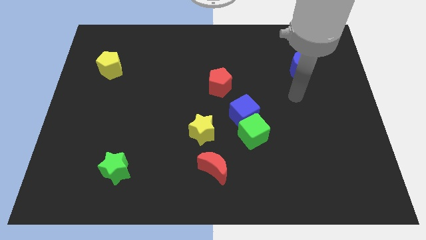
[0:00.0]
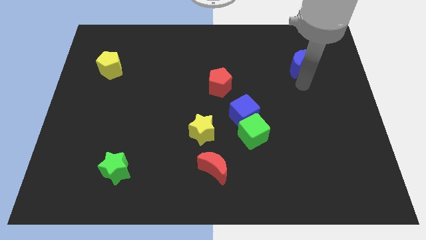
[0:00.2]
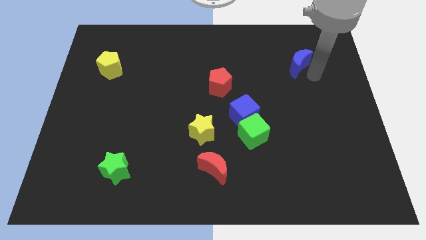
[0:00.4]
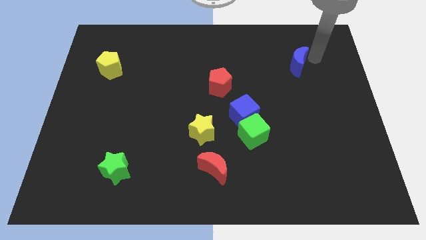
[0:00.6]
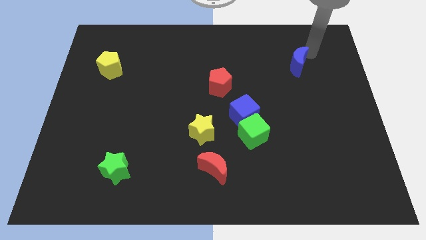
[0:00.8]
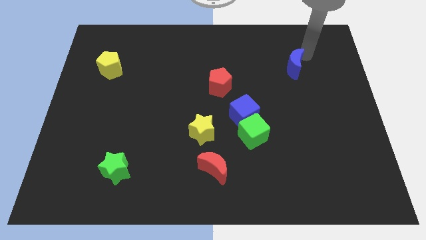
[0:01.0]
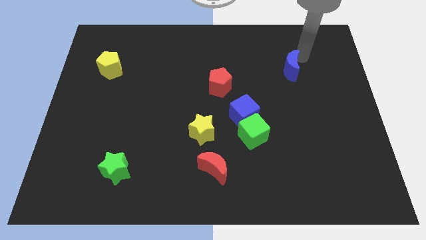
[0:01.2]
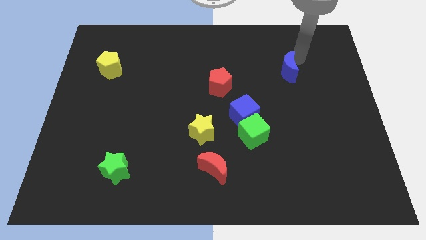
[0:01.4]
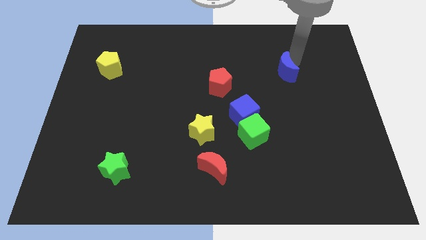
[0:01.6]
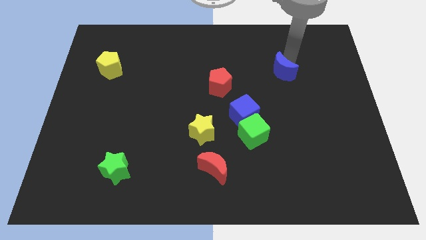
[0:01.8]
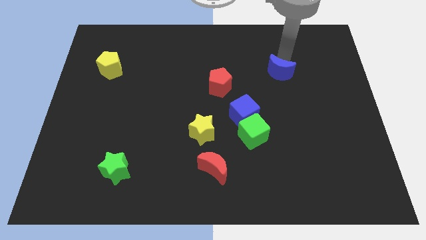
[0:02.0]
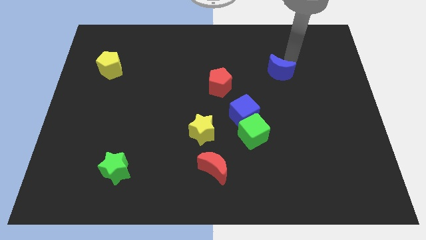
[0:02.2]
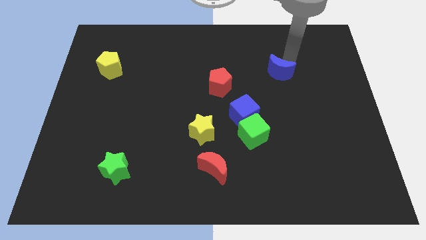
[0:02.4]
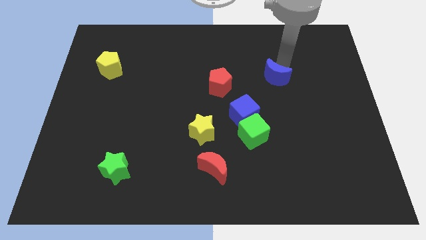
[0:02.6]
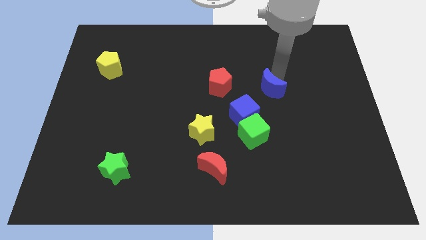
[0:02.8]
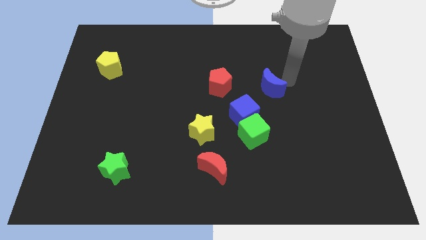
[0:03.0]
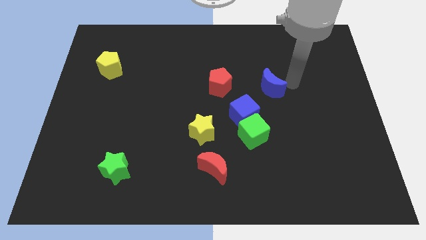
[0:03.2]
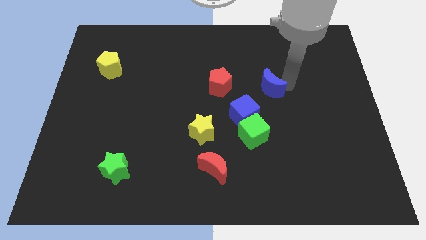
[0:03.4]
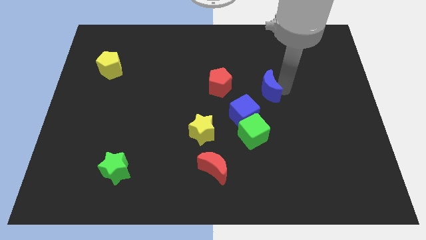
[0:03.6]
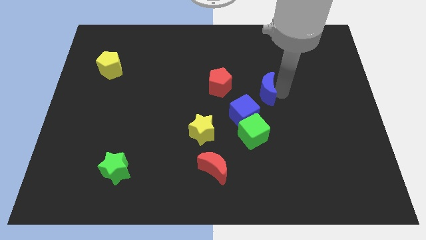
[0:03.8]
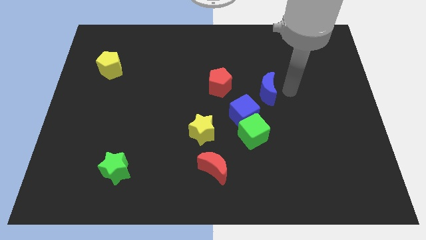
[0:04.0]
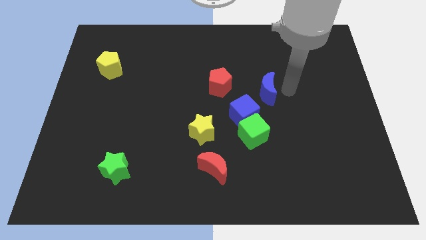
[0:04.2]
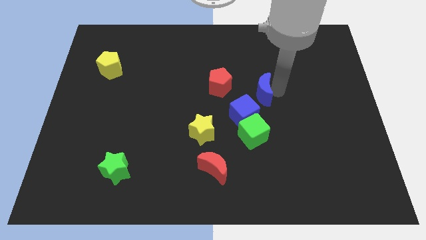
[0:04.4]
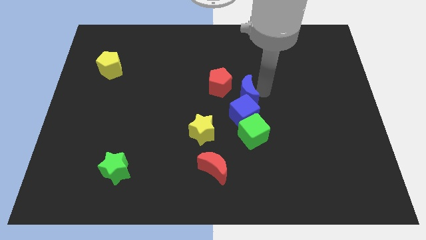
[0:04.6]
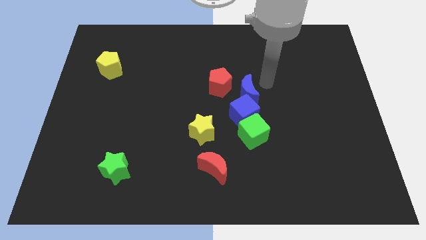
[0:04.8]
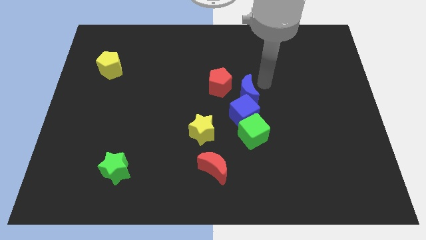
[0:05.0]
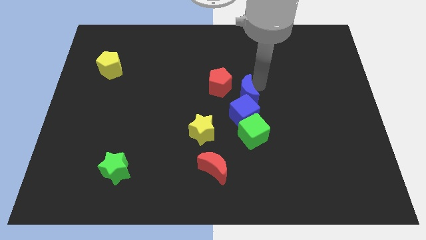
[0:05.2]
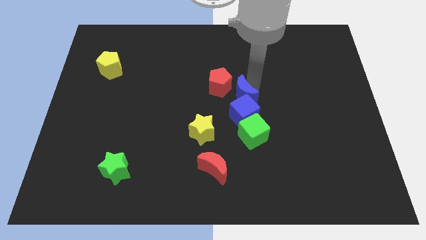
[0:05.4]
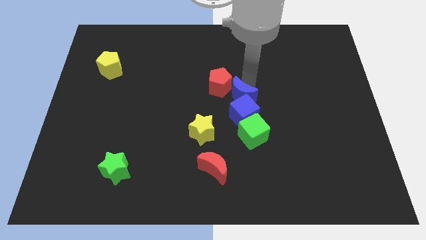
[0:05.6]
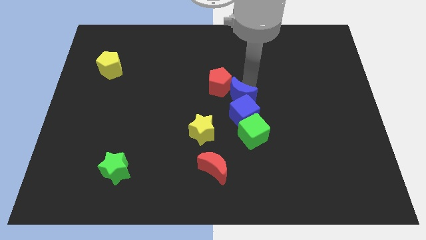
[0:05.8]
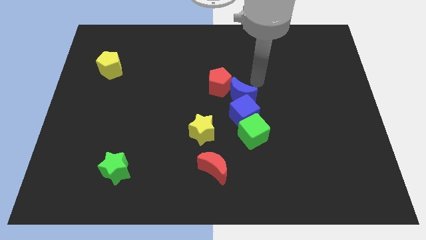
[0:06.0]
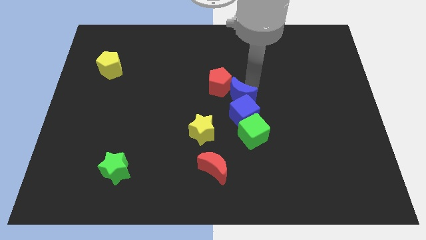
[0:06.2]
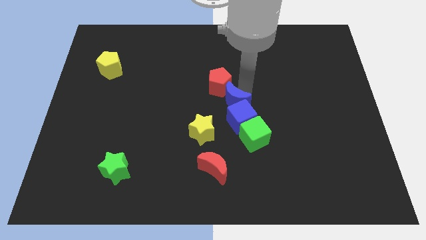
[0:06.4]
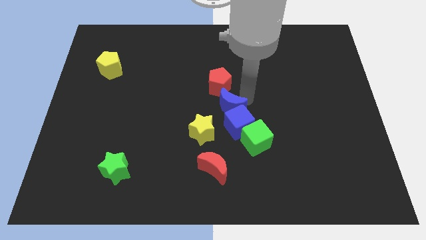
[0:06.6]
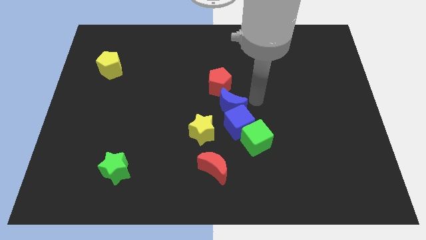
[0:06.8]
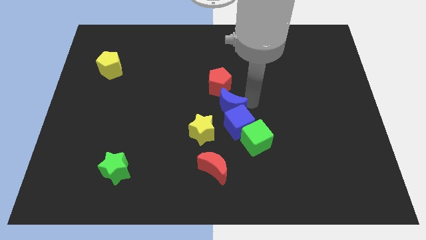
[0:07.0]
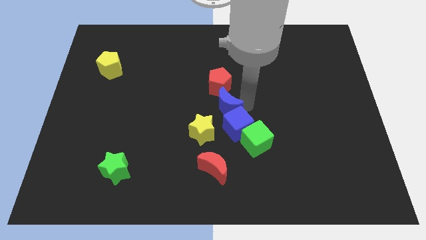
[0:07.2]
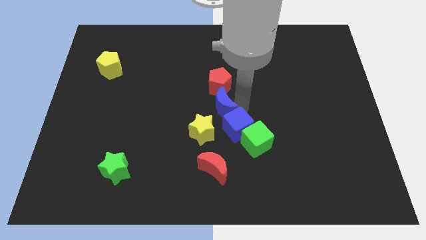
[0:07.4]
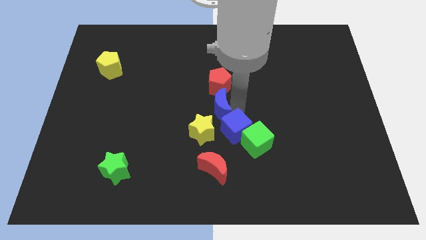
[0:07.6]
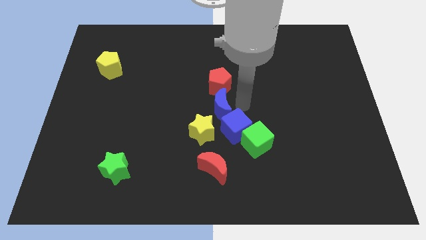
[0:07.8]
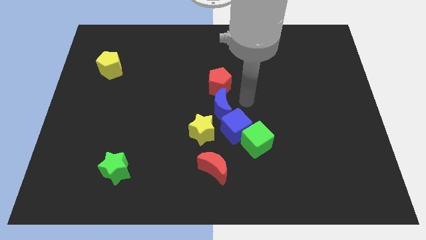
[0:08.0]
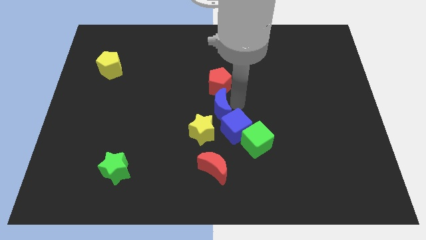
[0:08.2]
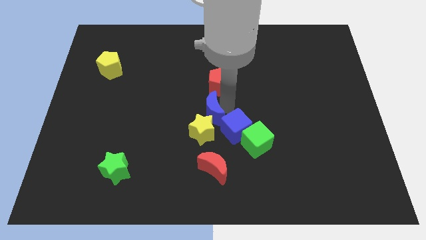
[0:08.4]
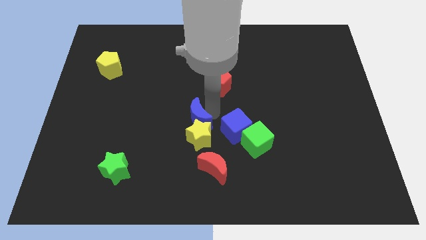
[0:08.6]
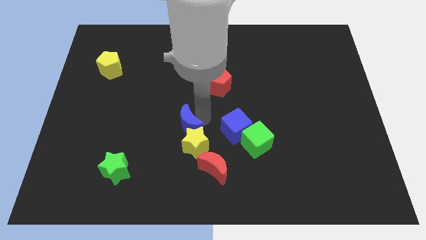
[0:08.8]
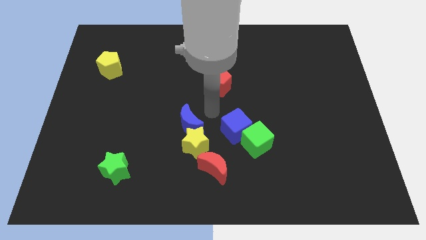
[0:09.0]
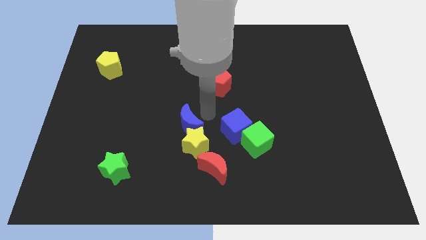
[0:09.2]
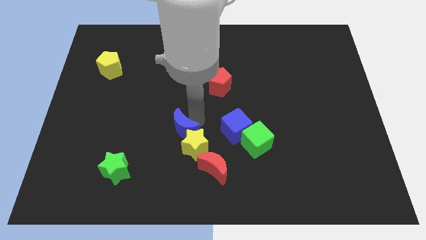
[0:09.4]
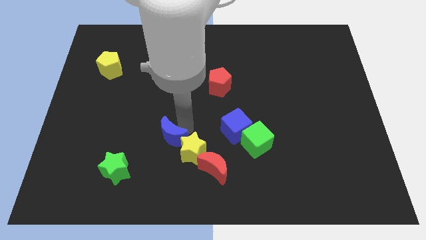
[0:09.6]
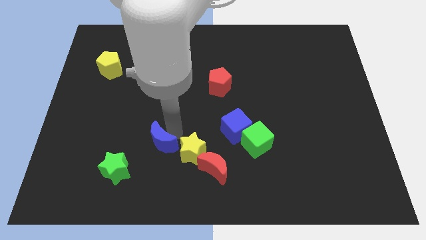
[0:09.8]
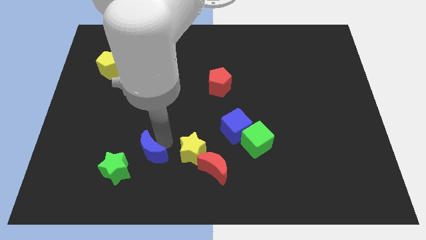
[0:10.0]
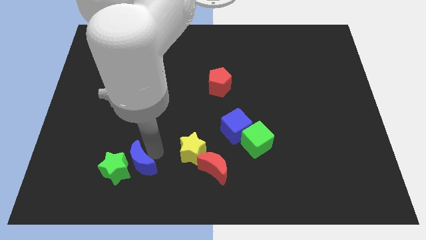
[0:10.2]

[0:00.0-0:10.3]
put the blue moon next to the green star

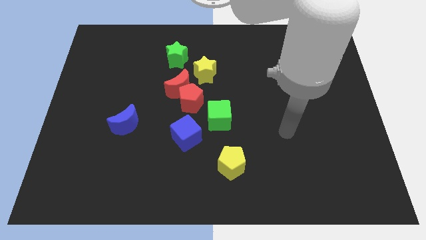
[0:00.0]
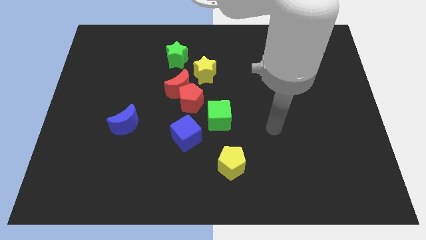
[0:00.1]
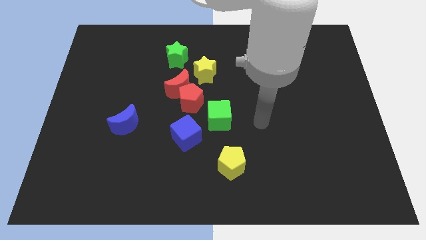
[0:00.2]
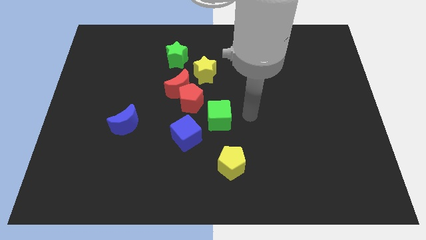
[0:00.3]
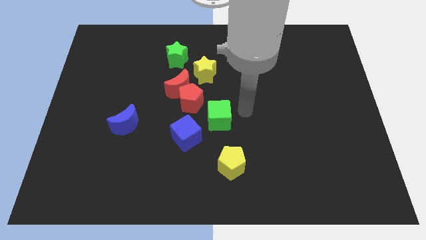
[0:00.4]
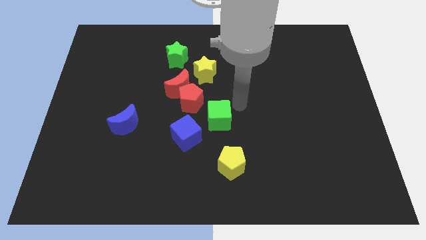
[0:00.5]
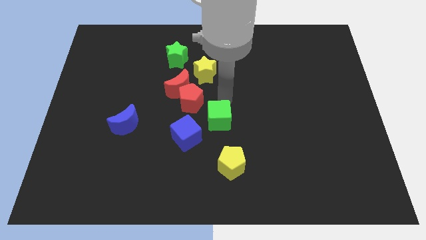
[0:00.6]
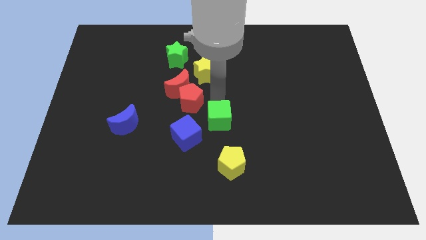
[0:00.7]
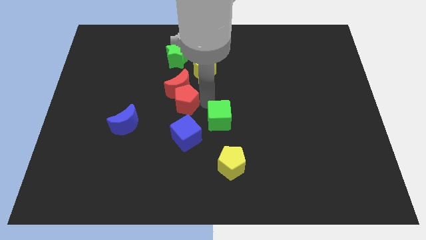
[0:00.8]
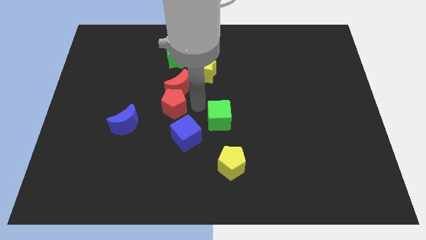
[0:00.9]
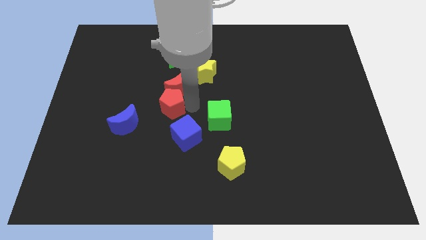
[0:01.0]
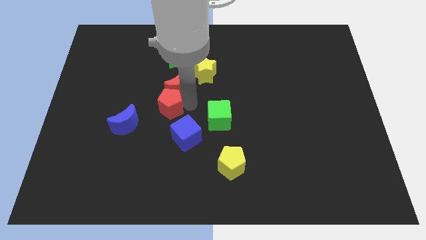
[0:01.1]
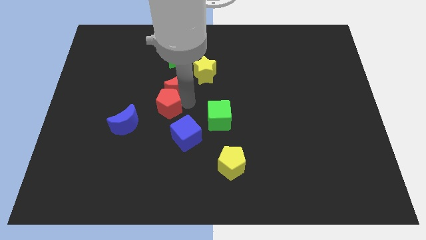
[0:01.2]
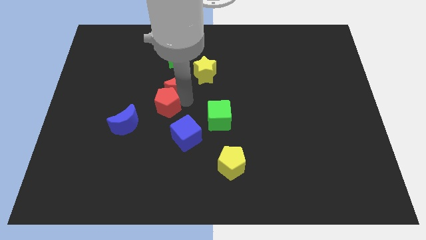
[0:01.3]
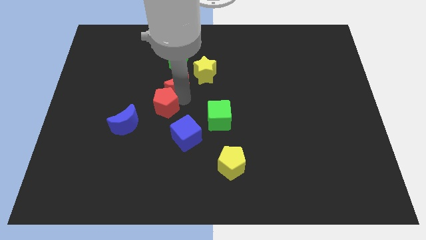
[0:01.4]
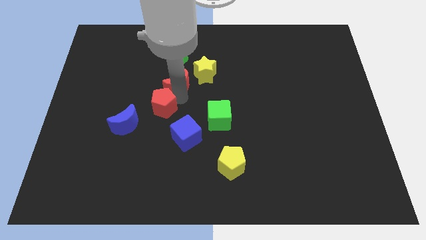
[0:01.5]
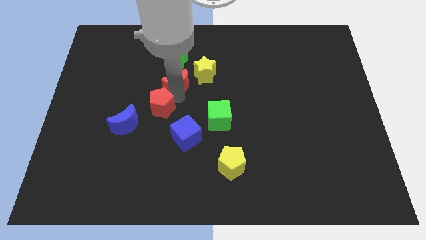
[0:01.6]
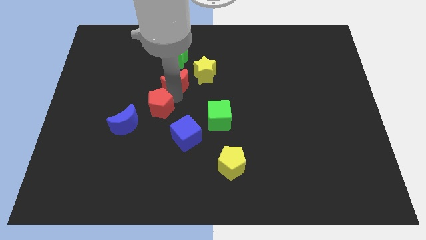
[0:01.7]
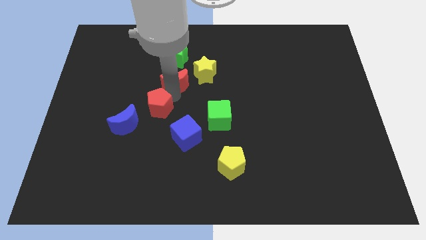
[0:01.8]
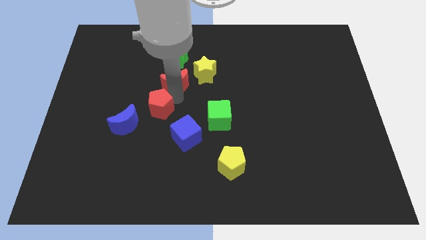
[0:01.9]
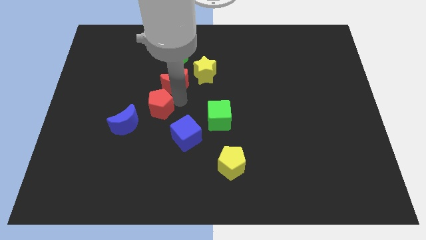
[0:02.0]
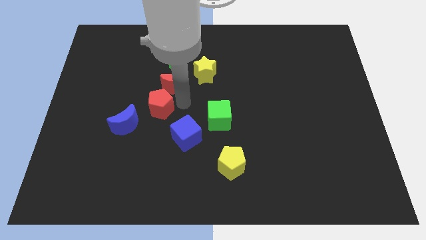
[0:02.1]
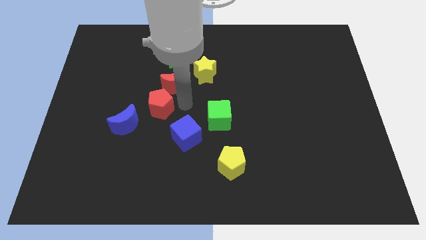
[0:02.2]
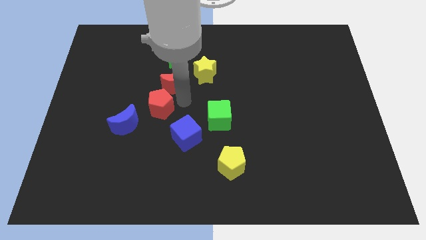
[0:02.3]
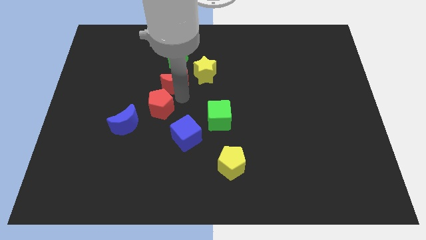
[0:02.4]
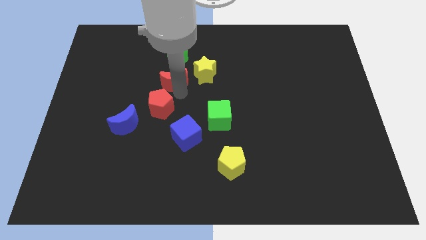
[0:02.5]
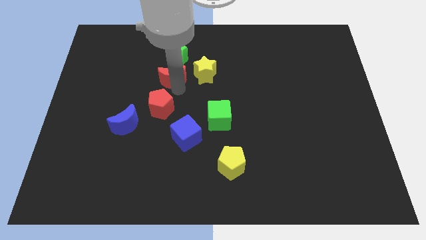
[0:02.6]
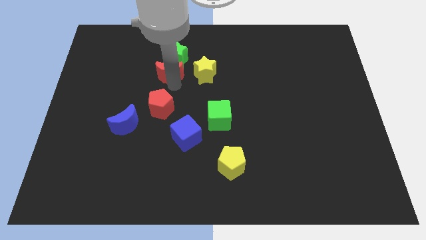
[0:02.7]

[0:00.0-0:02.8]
slide the red moon next to the green star
